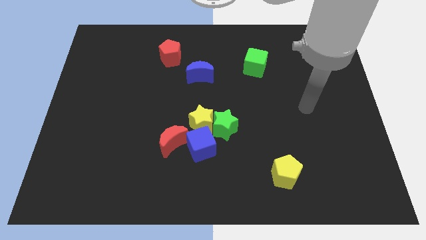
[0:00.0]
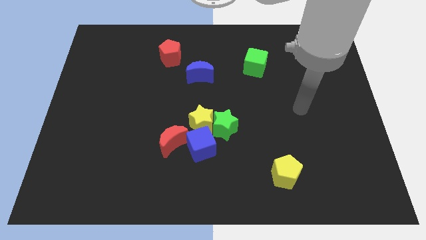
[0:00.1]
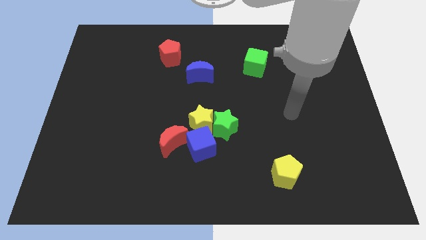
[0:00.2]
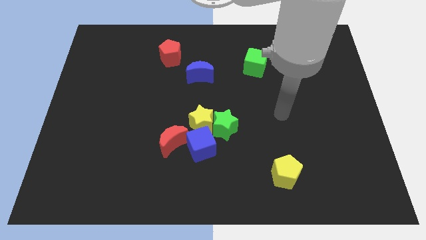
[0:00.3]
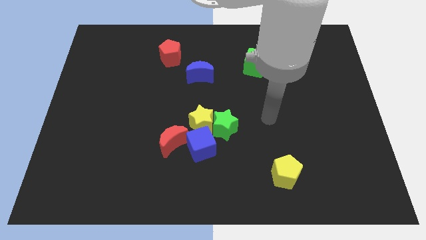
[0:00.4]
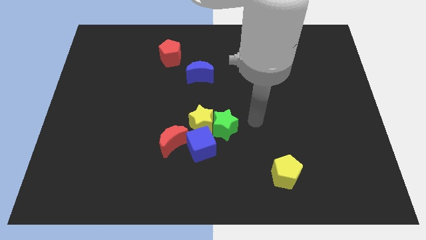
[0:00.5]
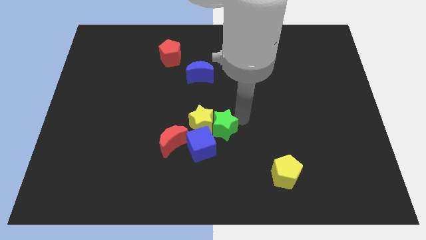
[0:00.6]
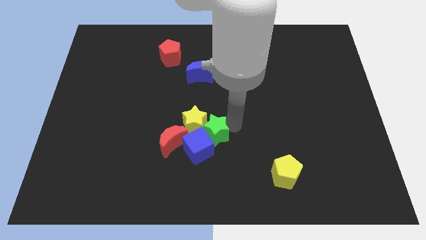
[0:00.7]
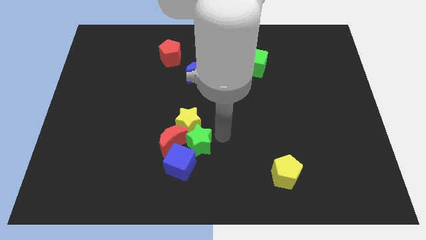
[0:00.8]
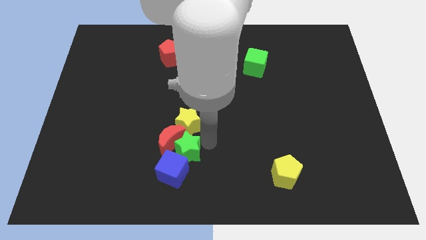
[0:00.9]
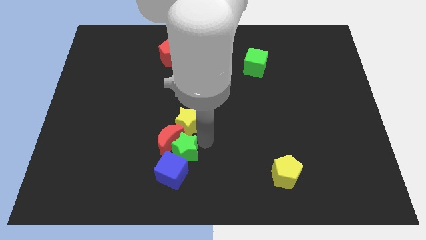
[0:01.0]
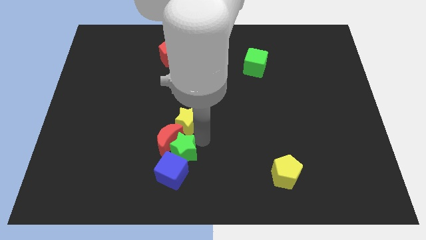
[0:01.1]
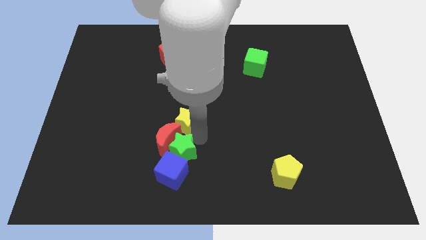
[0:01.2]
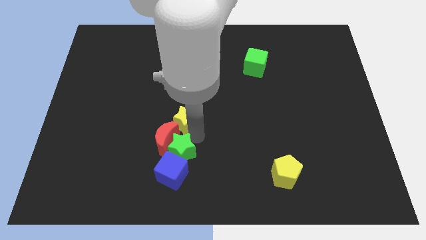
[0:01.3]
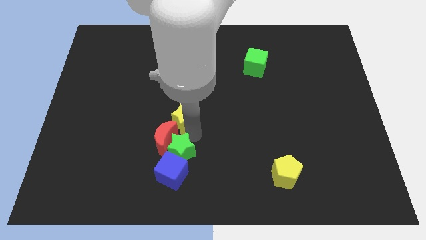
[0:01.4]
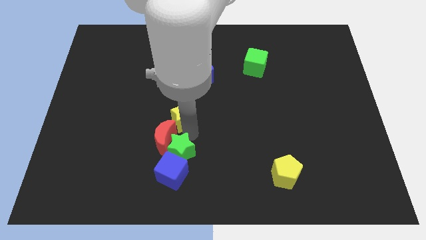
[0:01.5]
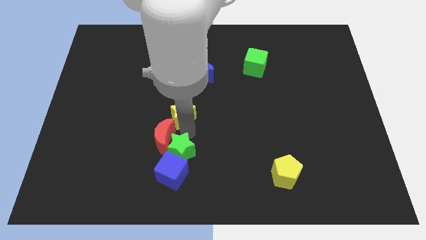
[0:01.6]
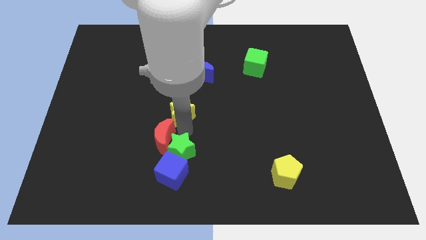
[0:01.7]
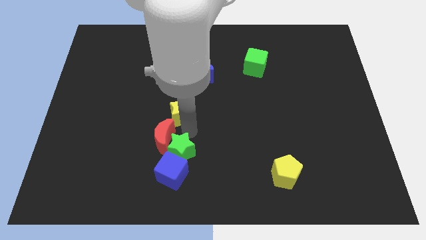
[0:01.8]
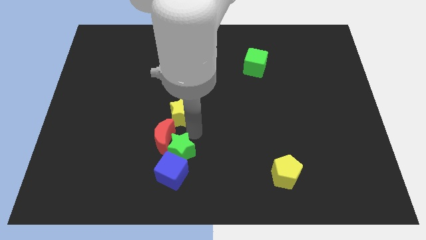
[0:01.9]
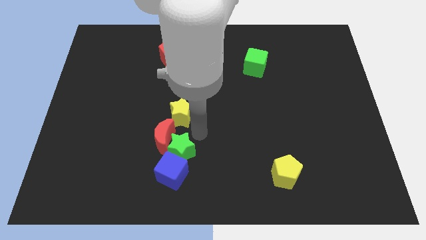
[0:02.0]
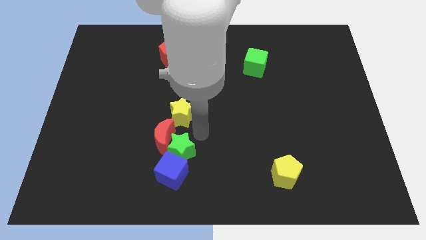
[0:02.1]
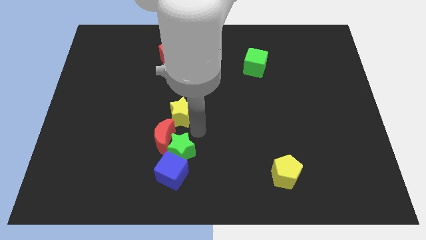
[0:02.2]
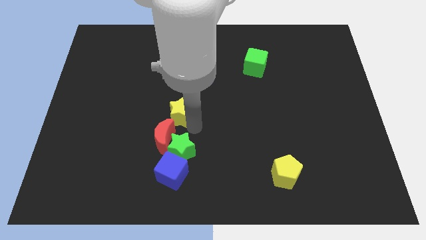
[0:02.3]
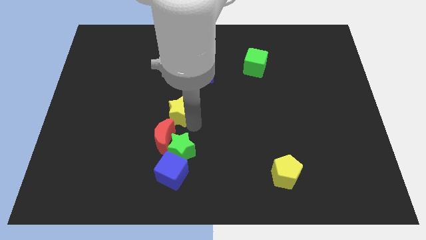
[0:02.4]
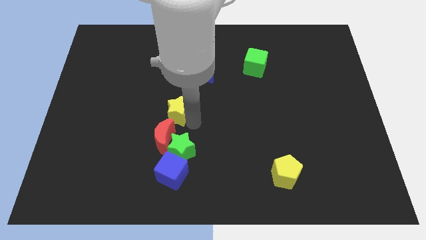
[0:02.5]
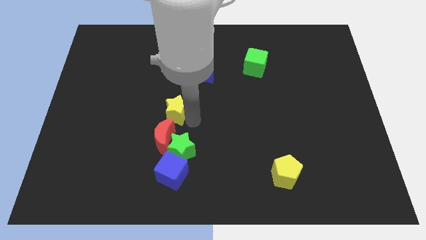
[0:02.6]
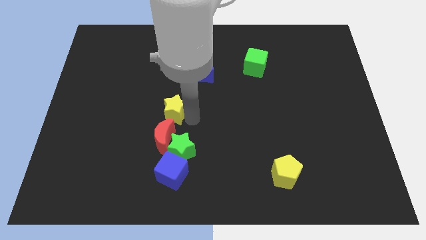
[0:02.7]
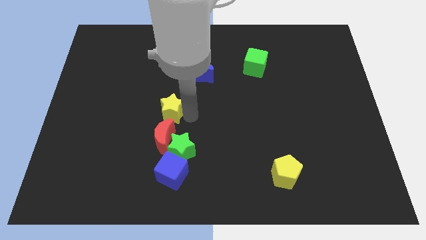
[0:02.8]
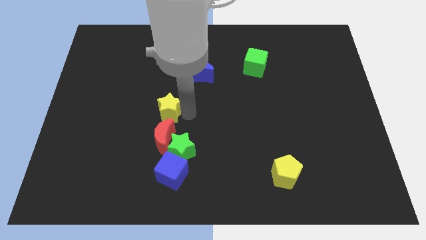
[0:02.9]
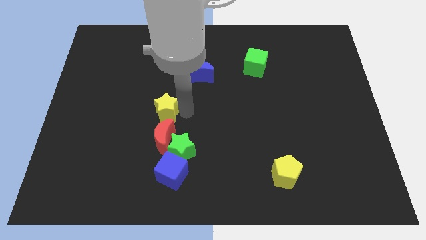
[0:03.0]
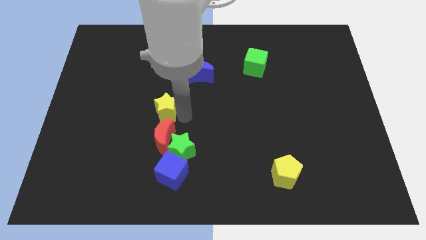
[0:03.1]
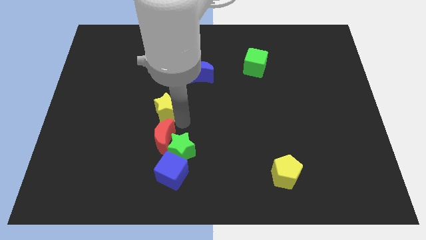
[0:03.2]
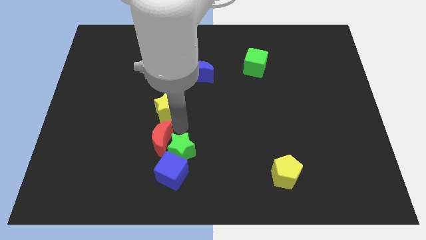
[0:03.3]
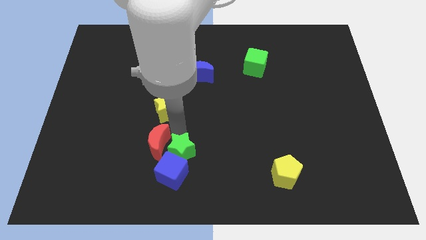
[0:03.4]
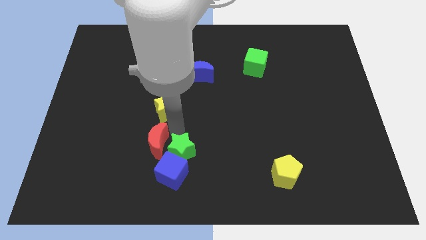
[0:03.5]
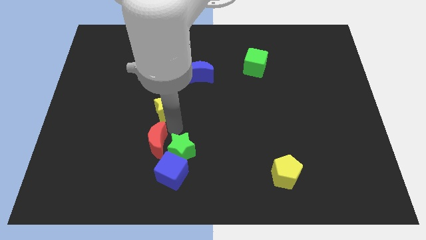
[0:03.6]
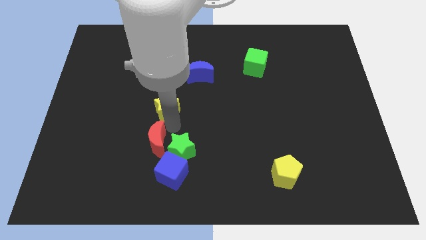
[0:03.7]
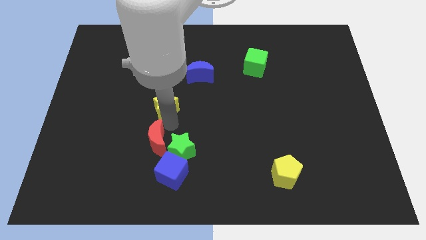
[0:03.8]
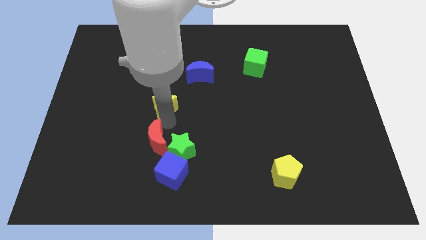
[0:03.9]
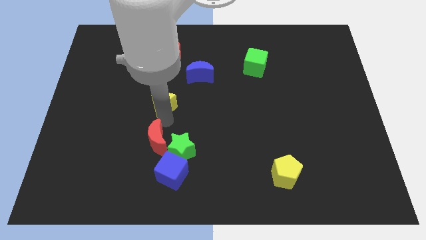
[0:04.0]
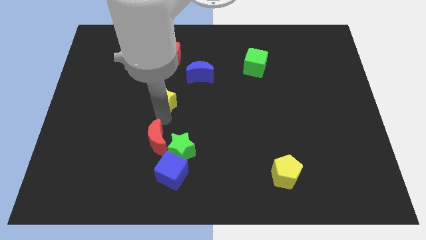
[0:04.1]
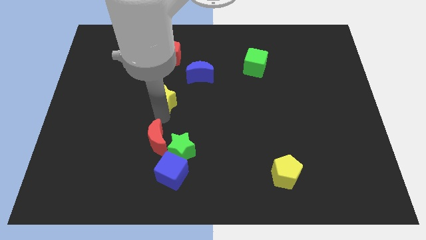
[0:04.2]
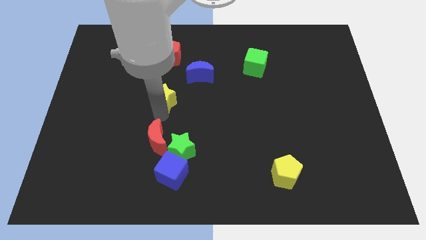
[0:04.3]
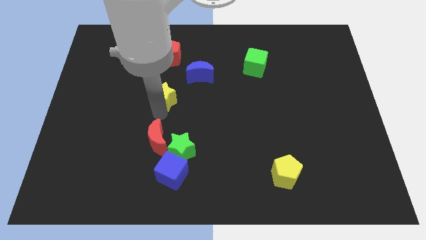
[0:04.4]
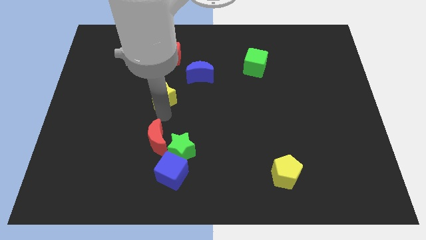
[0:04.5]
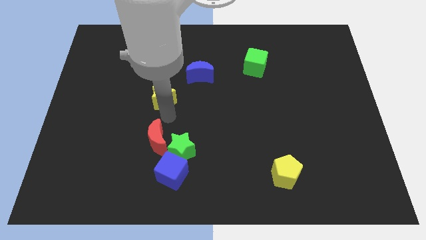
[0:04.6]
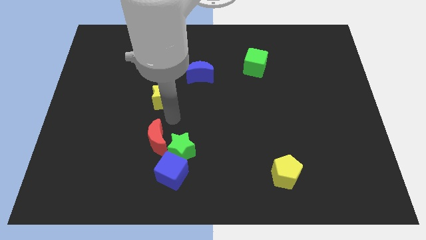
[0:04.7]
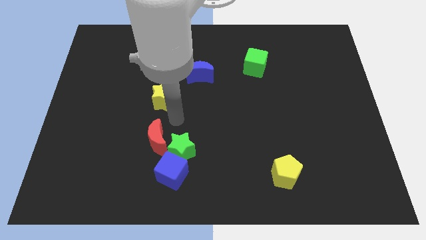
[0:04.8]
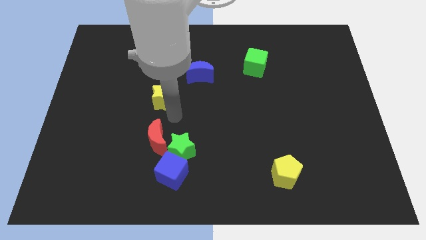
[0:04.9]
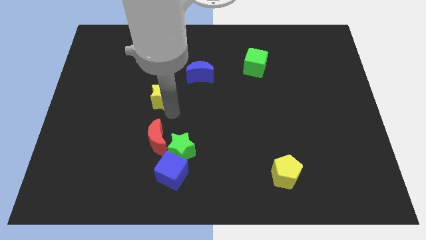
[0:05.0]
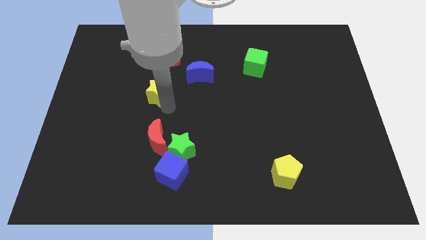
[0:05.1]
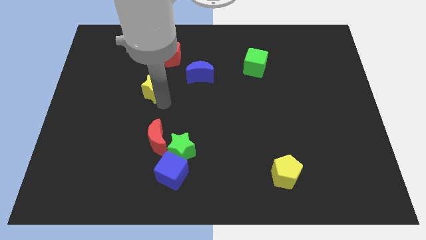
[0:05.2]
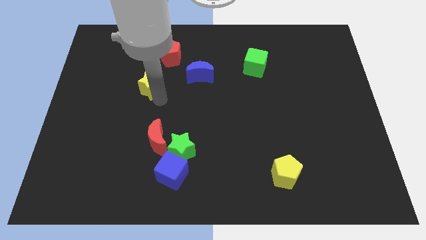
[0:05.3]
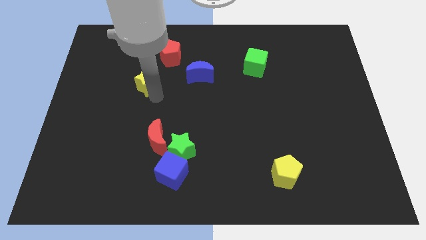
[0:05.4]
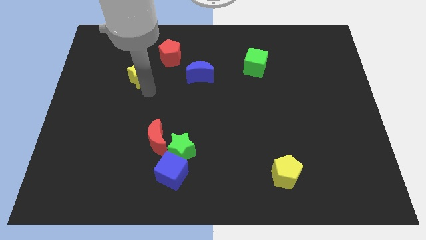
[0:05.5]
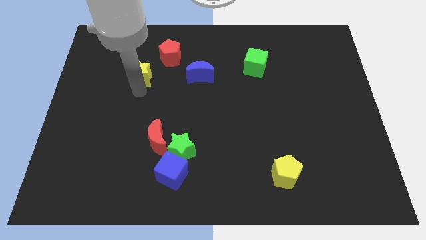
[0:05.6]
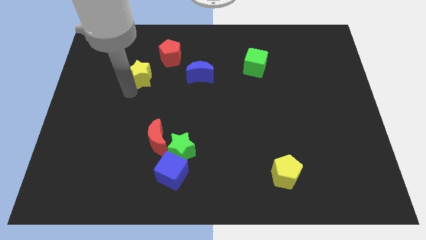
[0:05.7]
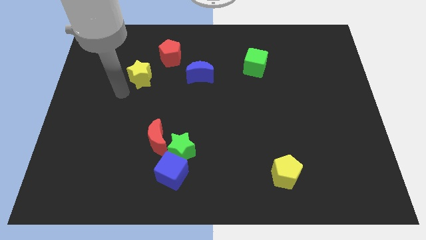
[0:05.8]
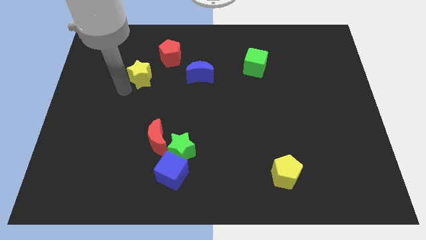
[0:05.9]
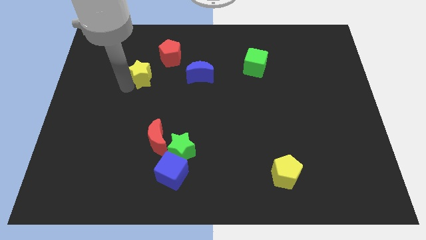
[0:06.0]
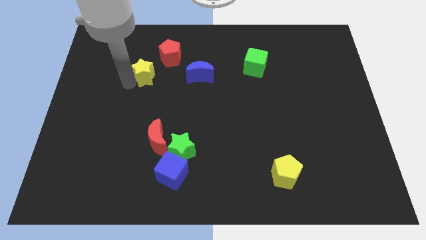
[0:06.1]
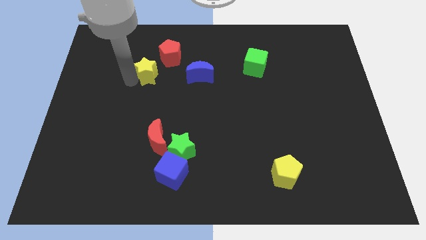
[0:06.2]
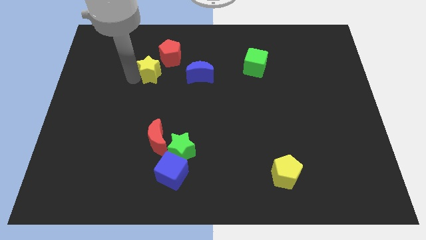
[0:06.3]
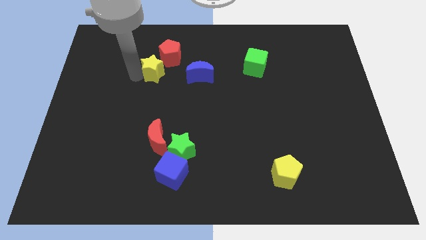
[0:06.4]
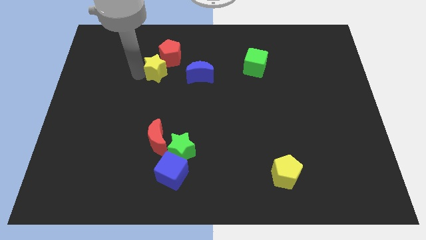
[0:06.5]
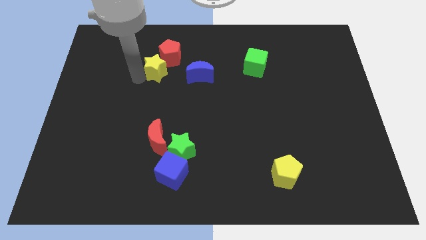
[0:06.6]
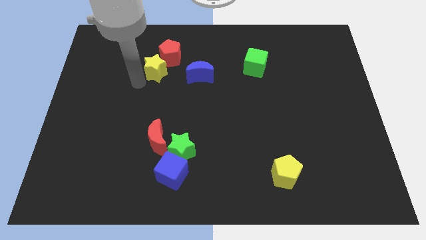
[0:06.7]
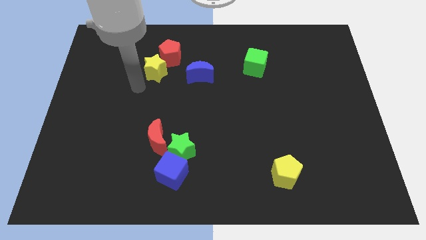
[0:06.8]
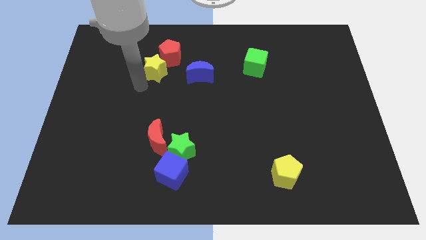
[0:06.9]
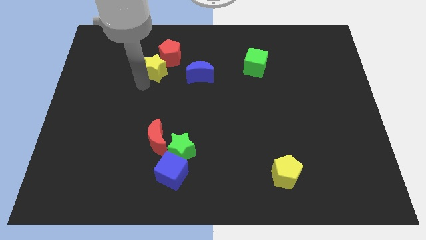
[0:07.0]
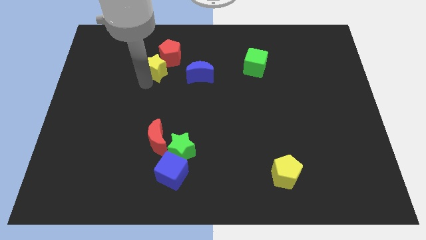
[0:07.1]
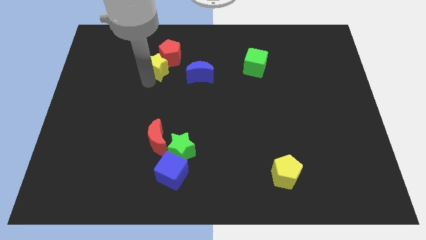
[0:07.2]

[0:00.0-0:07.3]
put the yellow star towards the red pentagon
